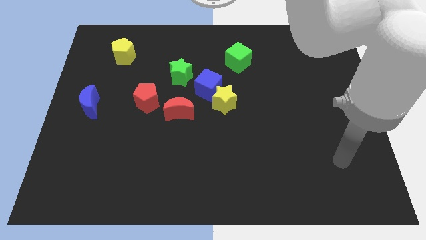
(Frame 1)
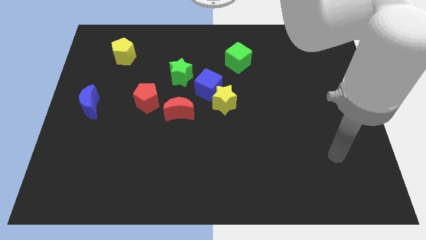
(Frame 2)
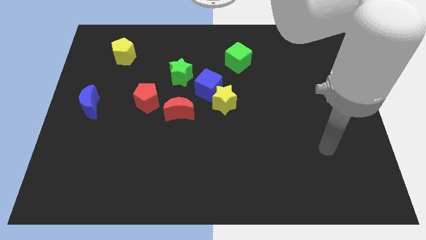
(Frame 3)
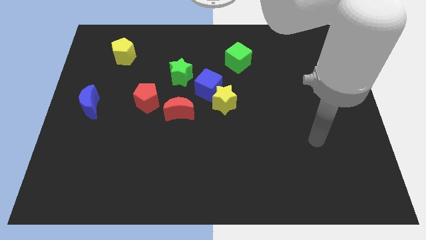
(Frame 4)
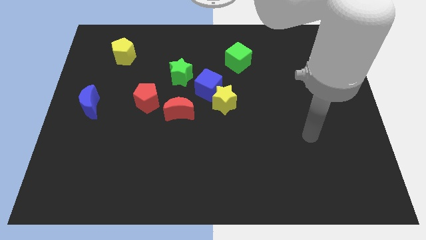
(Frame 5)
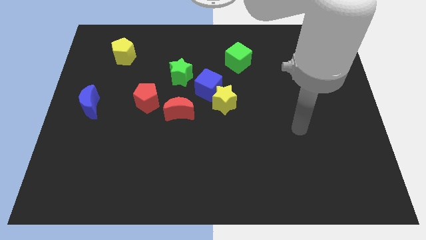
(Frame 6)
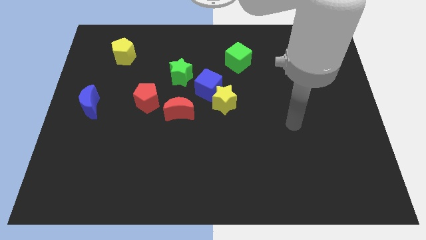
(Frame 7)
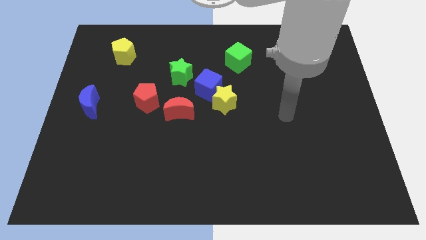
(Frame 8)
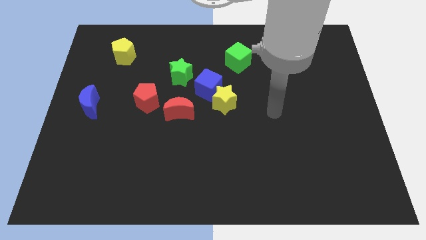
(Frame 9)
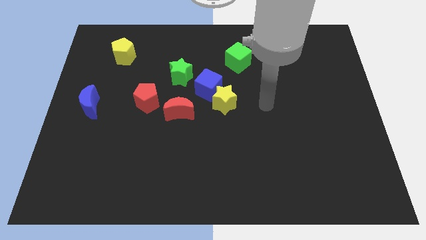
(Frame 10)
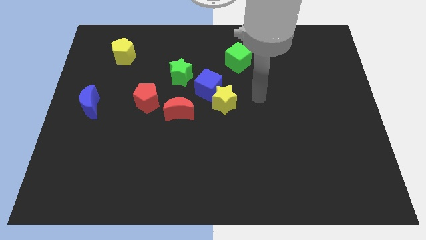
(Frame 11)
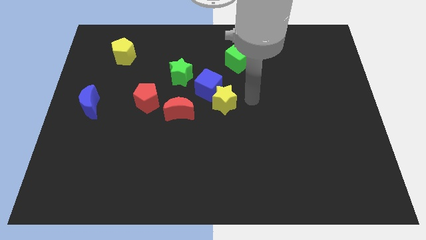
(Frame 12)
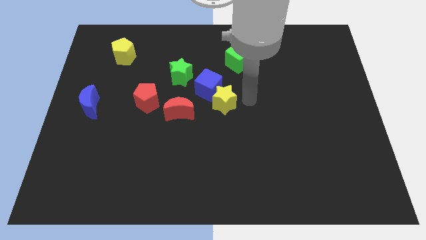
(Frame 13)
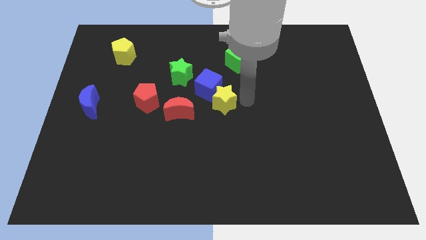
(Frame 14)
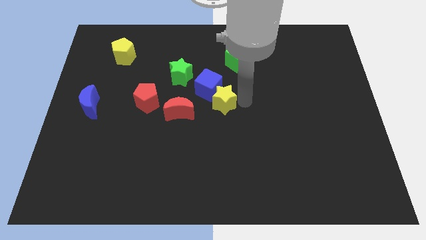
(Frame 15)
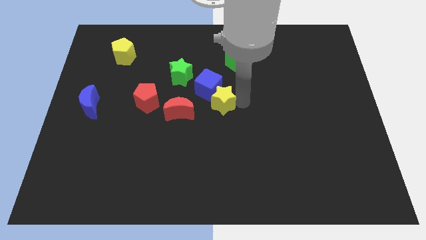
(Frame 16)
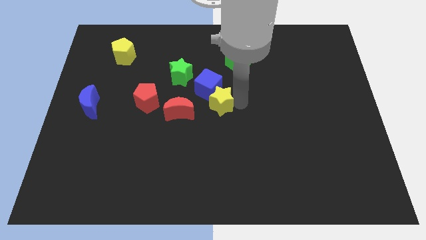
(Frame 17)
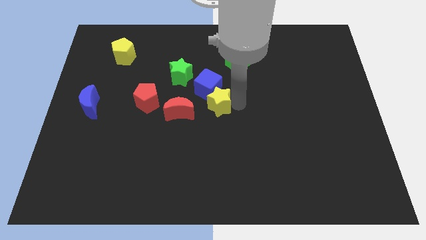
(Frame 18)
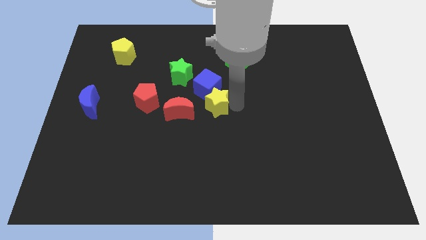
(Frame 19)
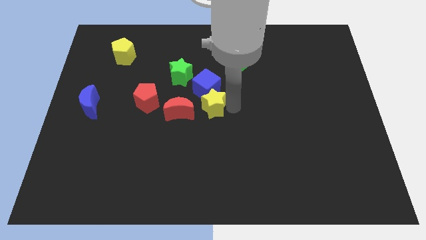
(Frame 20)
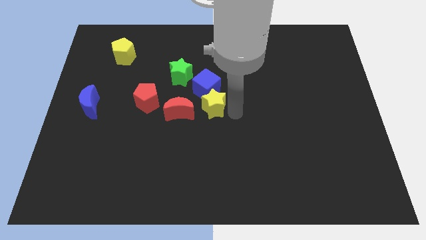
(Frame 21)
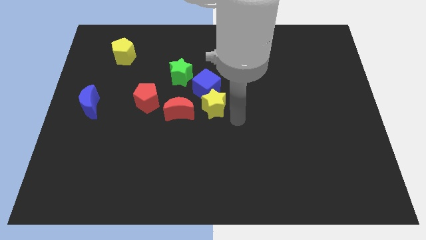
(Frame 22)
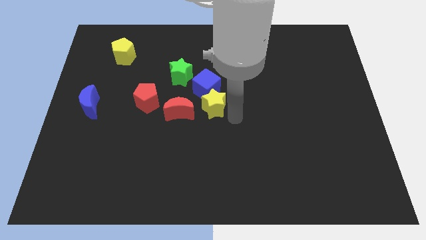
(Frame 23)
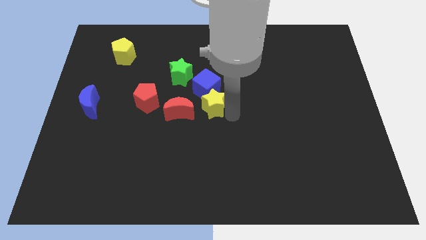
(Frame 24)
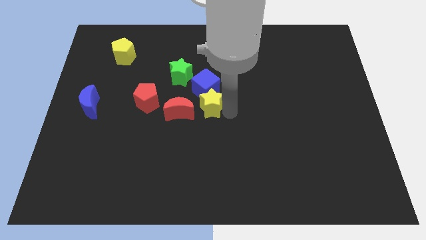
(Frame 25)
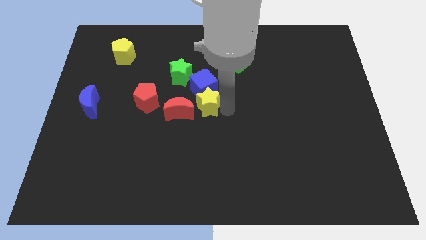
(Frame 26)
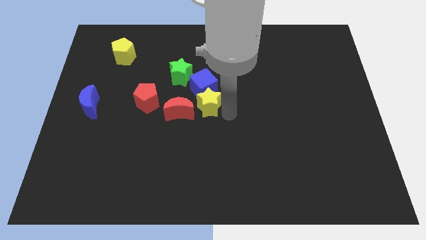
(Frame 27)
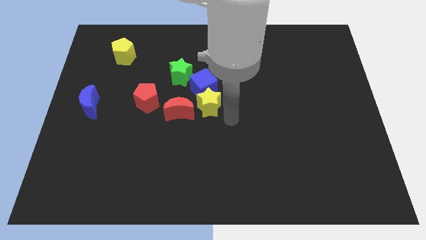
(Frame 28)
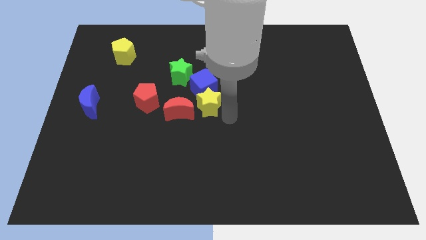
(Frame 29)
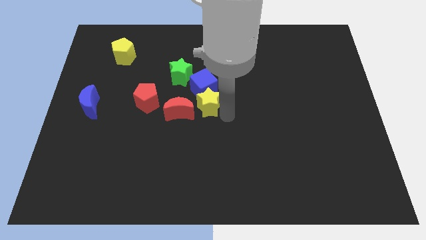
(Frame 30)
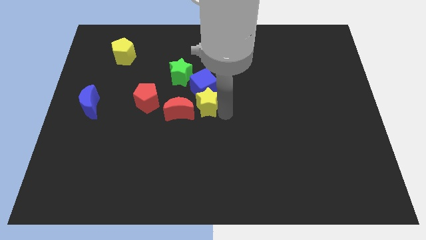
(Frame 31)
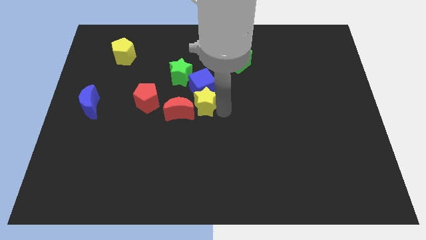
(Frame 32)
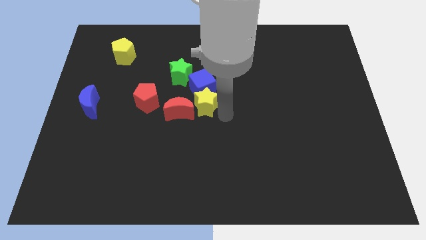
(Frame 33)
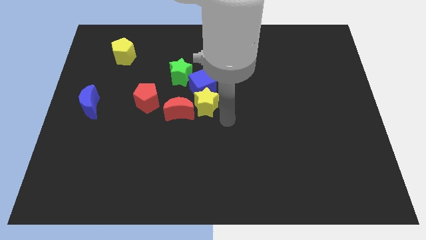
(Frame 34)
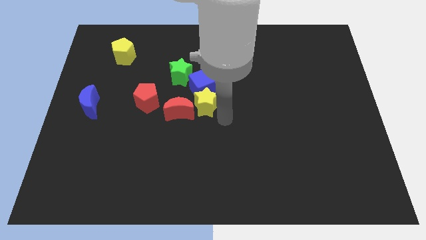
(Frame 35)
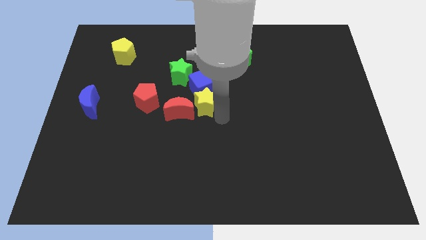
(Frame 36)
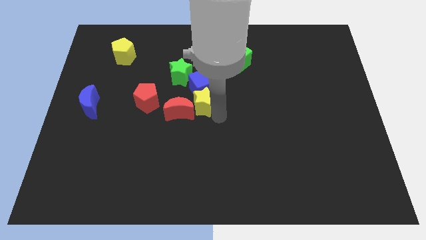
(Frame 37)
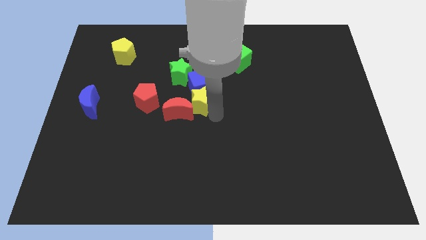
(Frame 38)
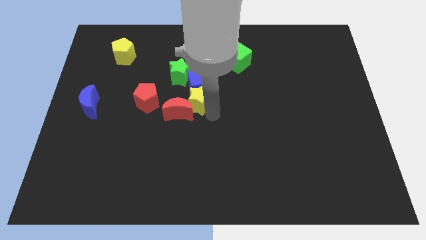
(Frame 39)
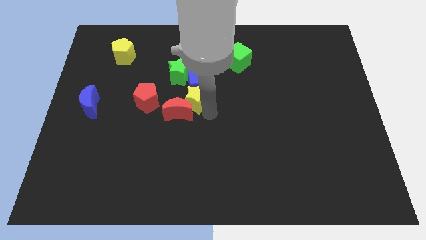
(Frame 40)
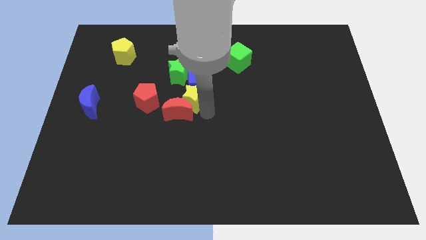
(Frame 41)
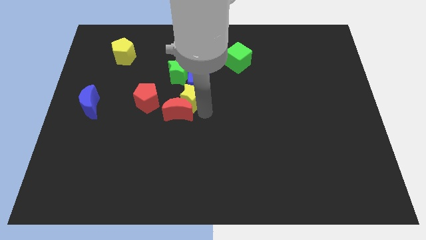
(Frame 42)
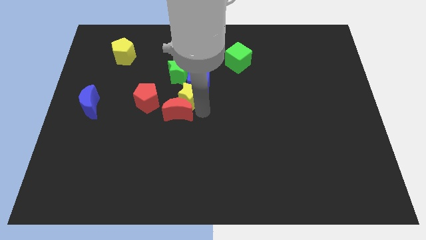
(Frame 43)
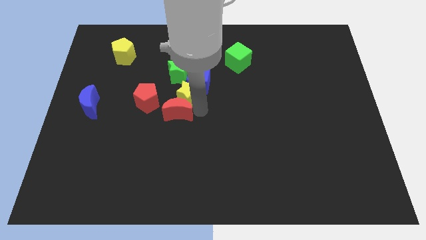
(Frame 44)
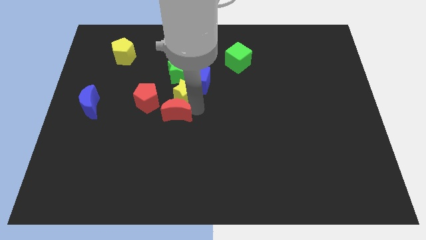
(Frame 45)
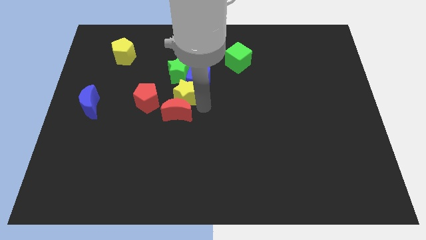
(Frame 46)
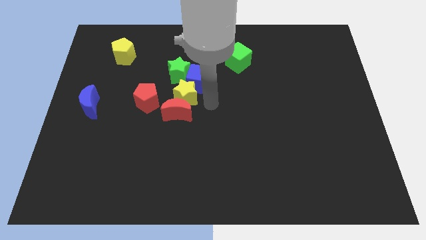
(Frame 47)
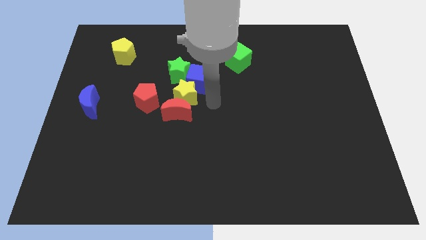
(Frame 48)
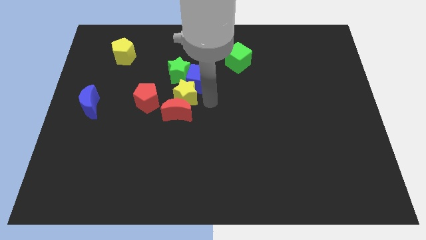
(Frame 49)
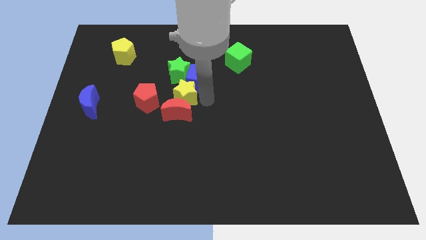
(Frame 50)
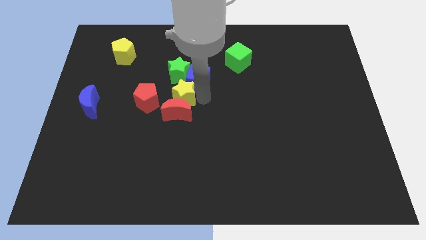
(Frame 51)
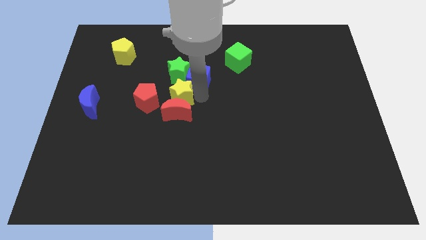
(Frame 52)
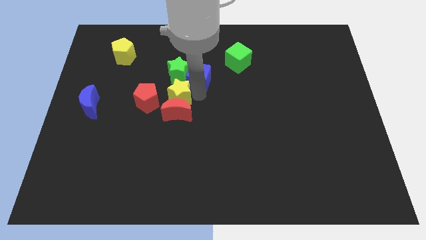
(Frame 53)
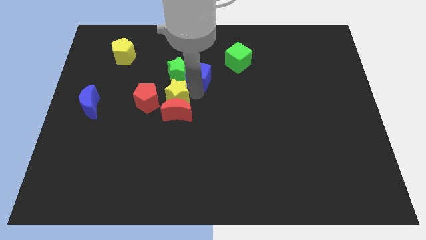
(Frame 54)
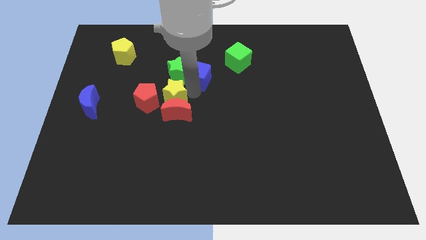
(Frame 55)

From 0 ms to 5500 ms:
move the yellow star diagonally down and to the left of the green star

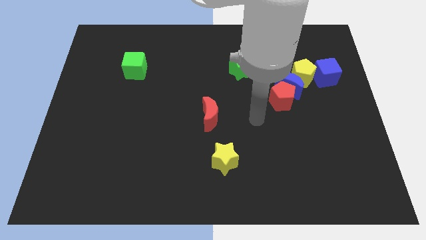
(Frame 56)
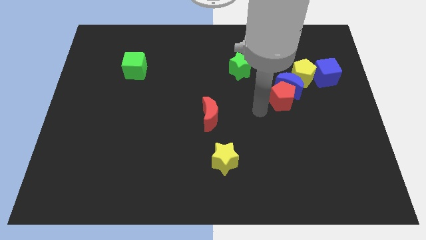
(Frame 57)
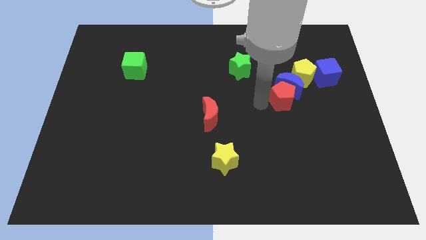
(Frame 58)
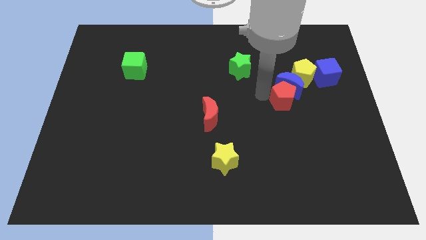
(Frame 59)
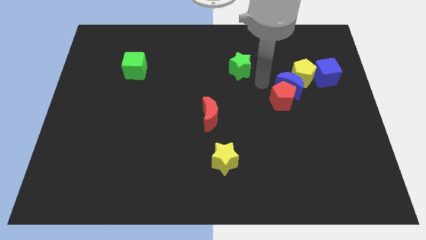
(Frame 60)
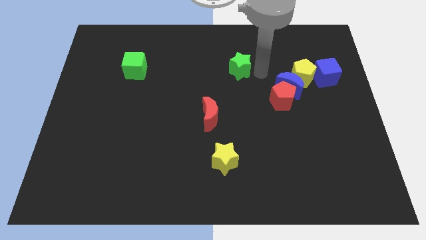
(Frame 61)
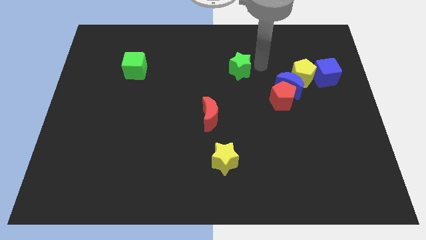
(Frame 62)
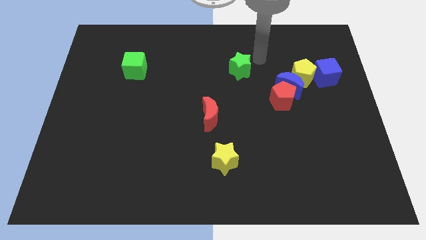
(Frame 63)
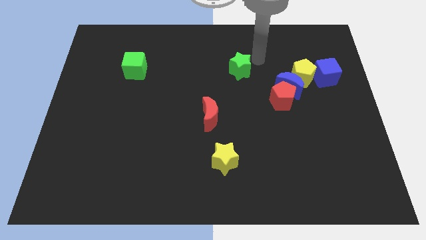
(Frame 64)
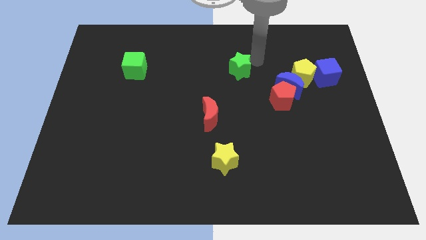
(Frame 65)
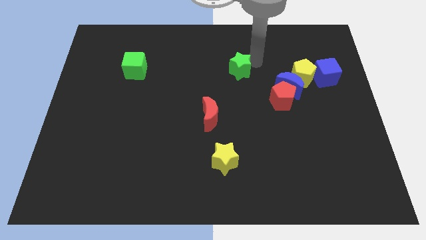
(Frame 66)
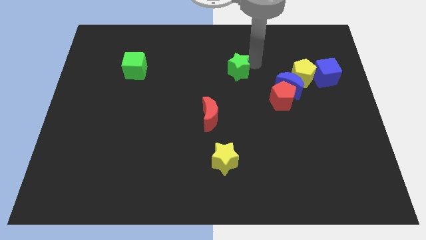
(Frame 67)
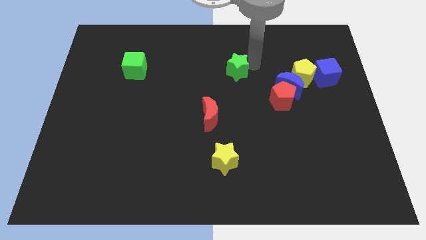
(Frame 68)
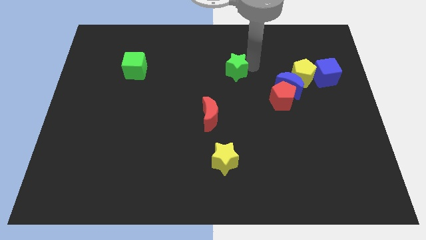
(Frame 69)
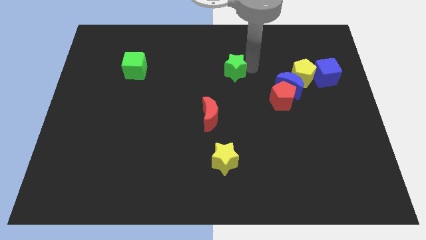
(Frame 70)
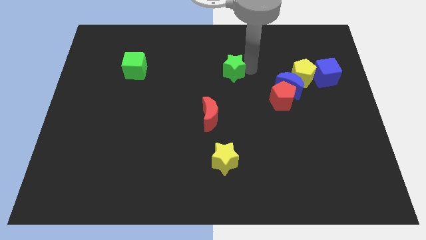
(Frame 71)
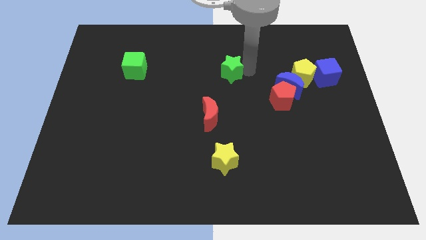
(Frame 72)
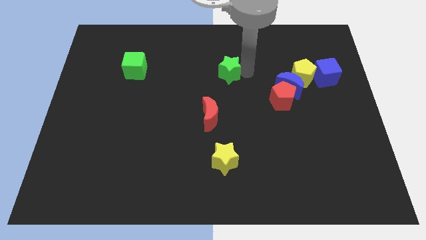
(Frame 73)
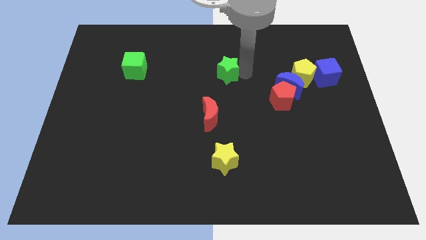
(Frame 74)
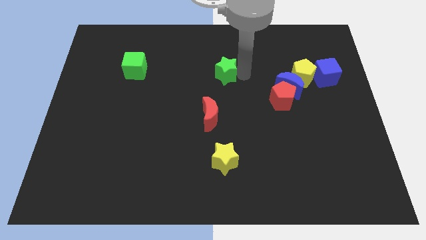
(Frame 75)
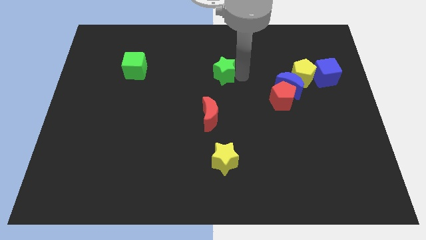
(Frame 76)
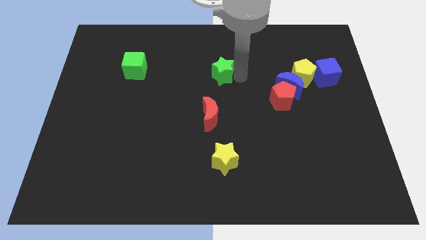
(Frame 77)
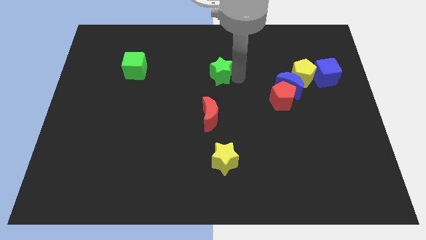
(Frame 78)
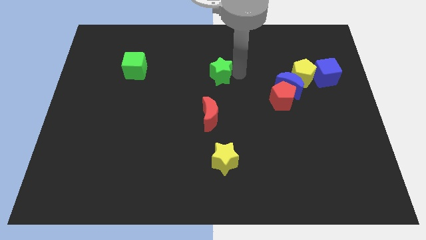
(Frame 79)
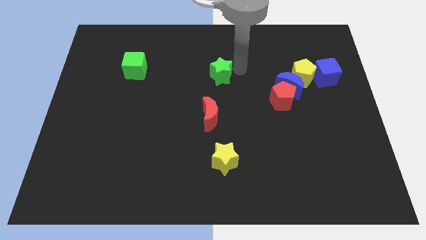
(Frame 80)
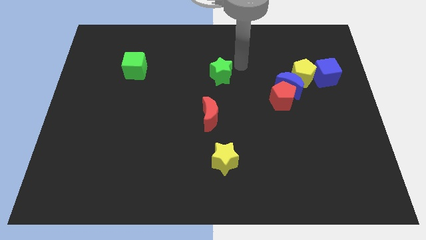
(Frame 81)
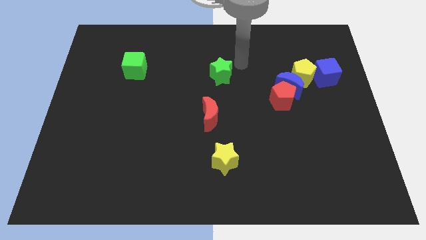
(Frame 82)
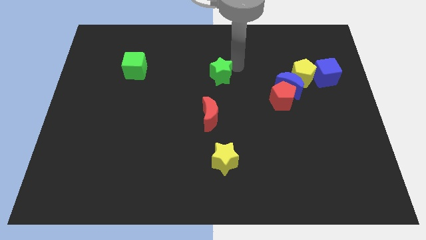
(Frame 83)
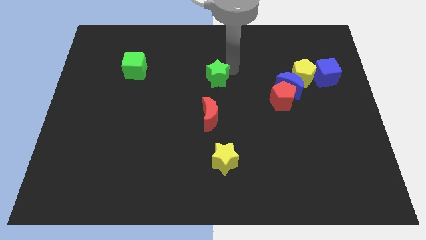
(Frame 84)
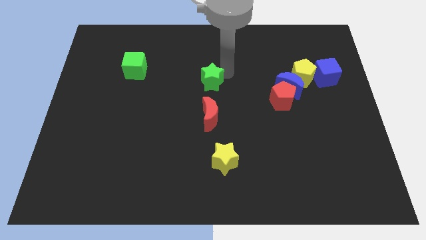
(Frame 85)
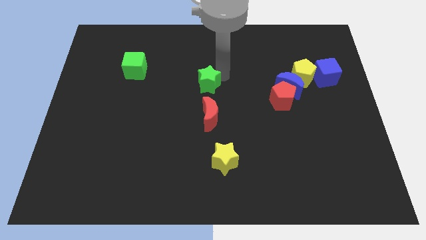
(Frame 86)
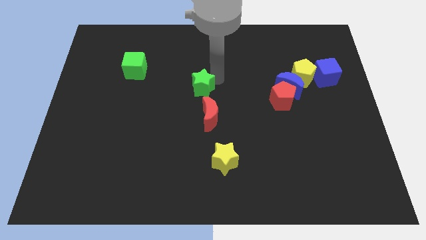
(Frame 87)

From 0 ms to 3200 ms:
move the green star to the top left side of the red moon
